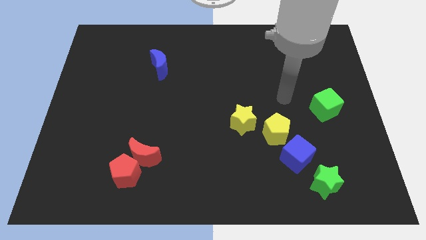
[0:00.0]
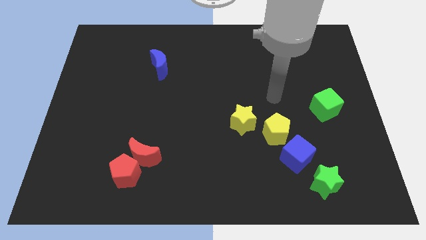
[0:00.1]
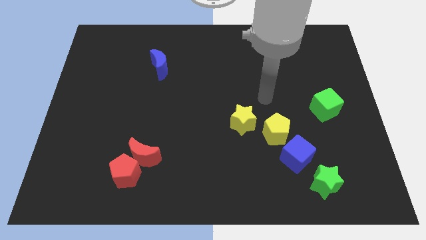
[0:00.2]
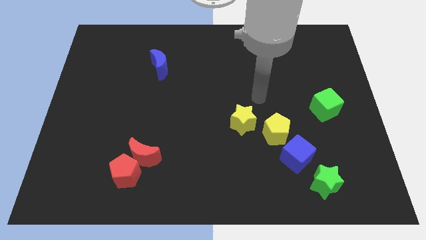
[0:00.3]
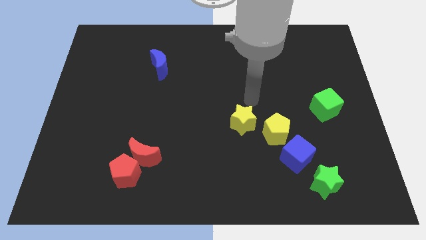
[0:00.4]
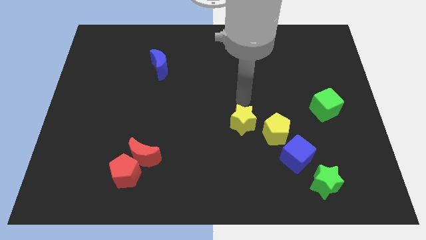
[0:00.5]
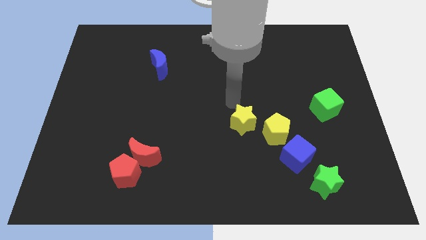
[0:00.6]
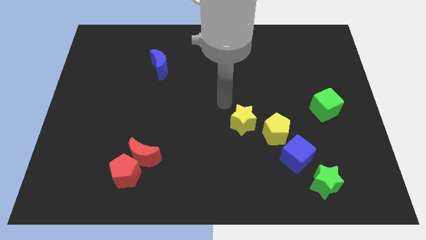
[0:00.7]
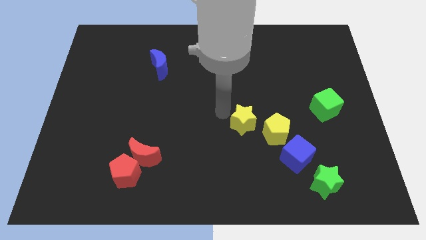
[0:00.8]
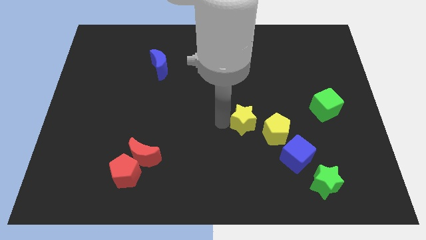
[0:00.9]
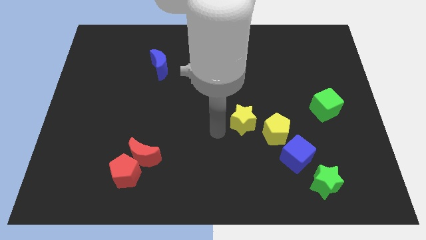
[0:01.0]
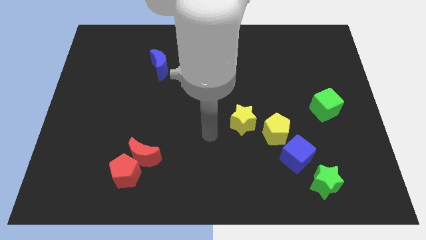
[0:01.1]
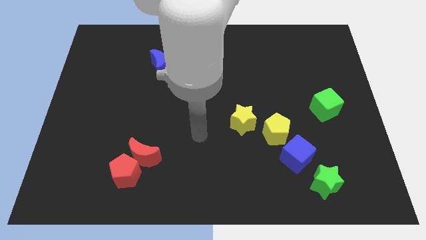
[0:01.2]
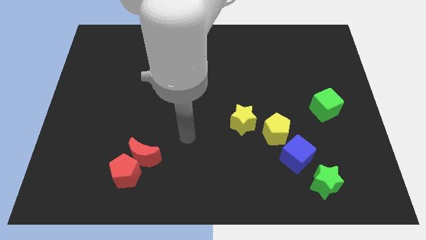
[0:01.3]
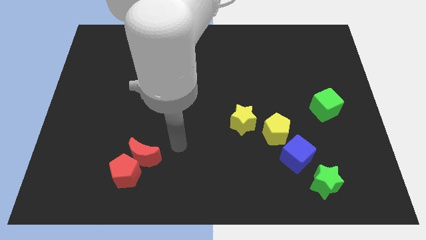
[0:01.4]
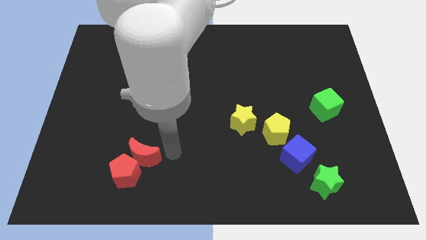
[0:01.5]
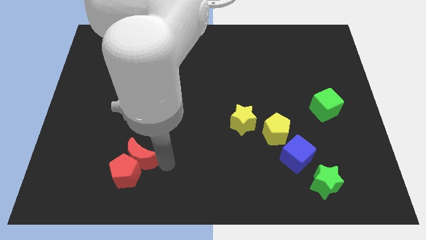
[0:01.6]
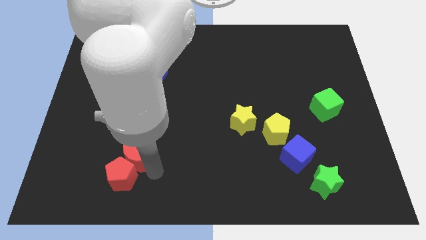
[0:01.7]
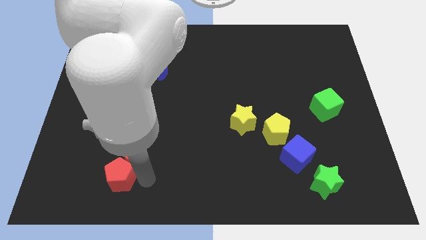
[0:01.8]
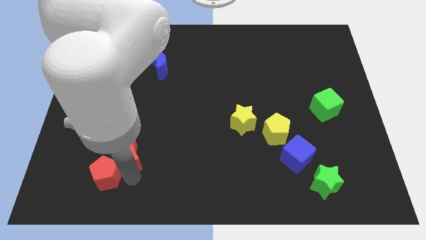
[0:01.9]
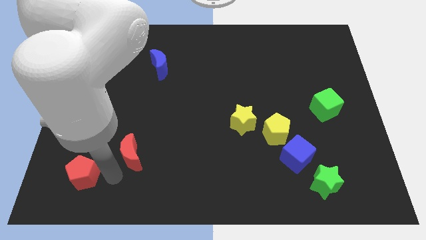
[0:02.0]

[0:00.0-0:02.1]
move the red moon away from the red pentagon

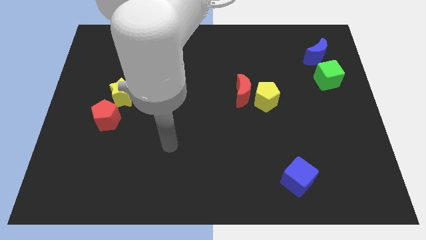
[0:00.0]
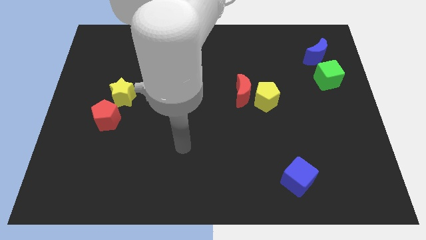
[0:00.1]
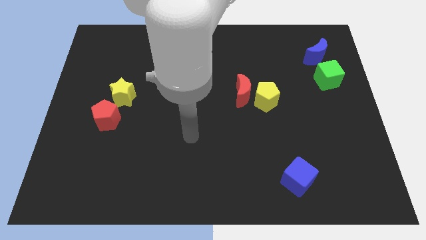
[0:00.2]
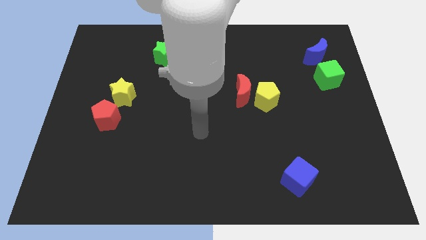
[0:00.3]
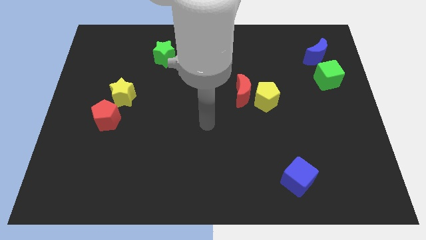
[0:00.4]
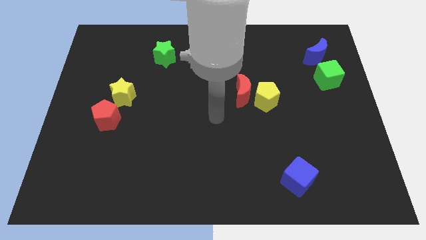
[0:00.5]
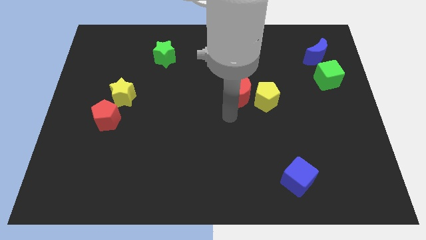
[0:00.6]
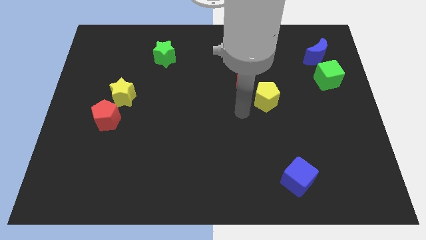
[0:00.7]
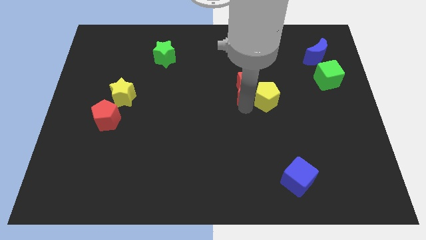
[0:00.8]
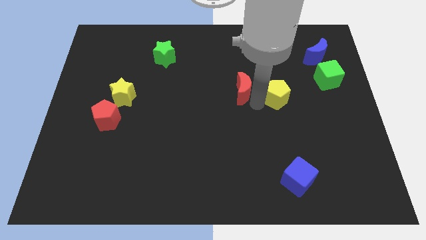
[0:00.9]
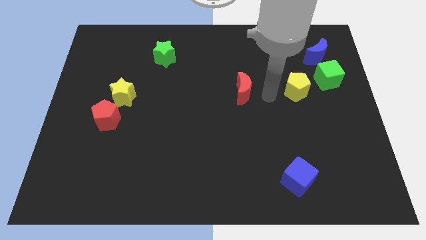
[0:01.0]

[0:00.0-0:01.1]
separate the red moon from the yellow pentagon

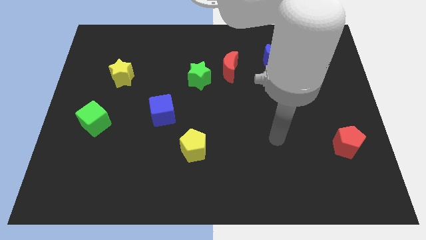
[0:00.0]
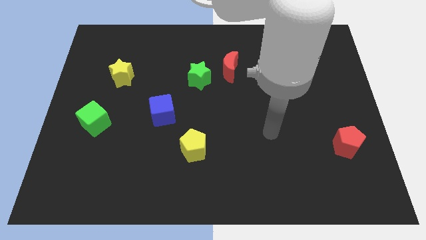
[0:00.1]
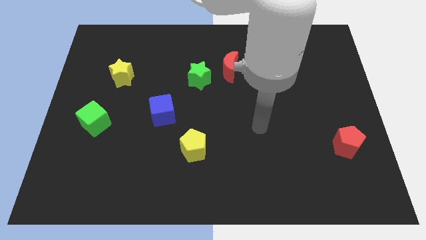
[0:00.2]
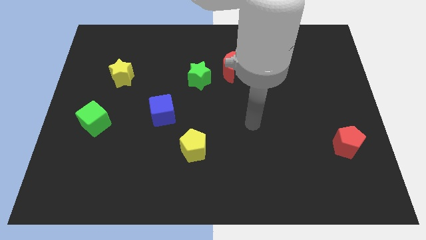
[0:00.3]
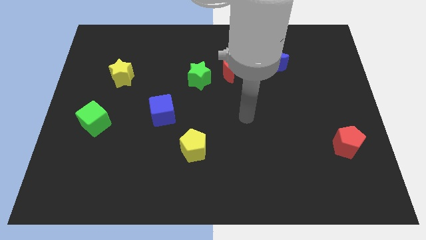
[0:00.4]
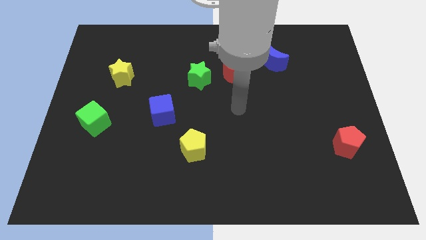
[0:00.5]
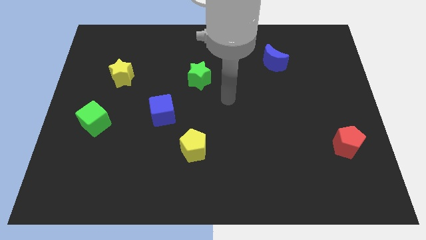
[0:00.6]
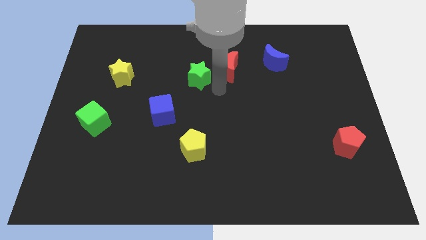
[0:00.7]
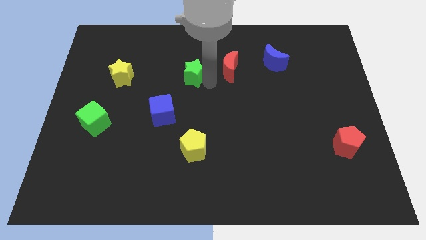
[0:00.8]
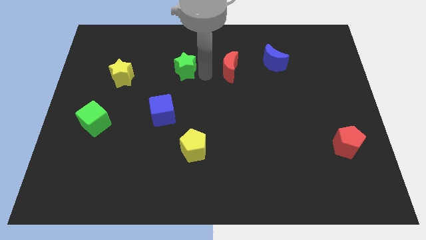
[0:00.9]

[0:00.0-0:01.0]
separate the red moon from the green star

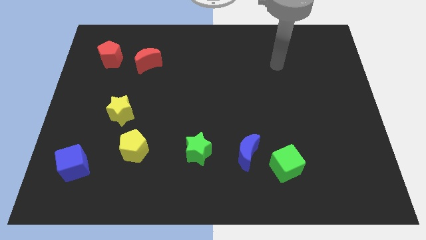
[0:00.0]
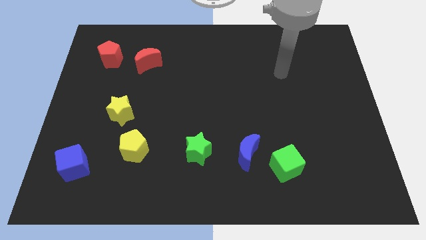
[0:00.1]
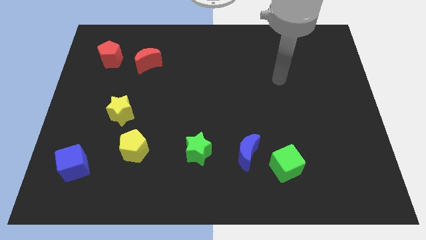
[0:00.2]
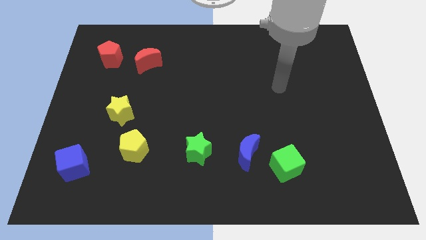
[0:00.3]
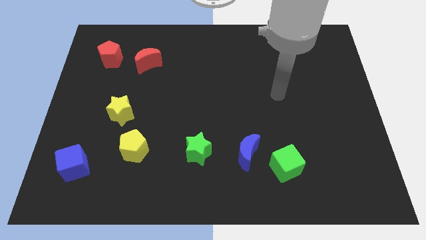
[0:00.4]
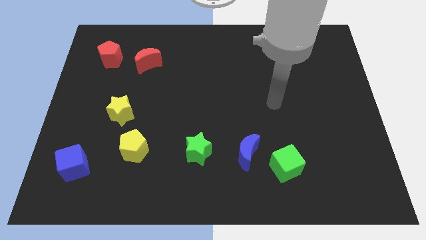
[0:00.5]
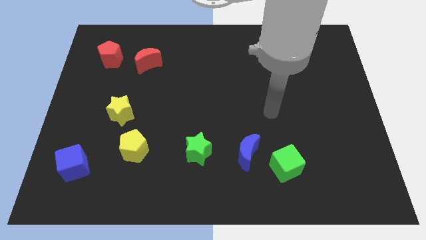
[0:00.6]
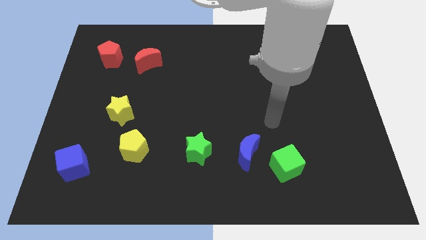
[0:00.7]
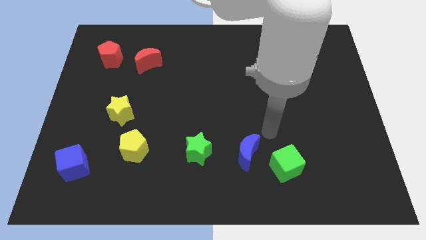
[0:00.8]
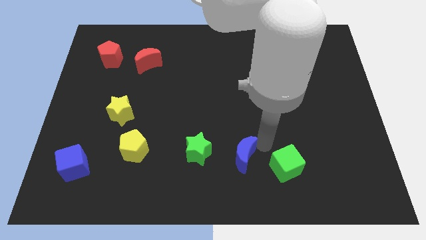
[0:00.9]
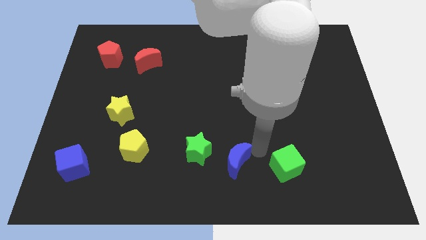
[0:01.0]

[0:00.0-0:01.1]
separate the green cube from the blue moon

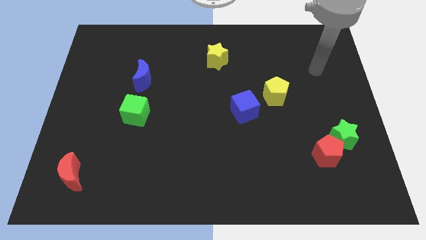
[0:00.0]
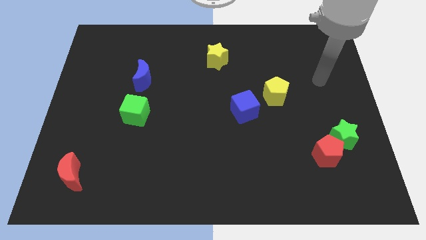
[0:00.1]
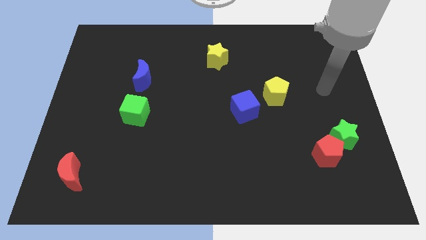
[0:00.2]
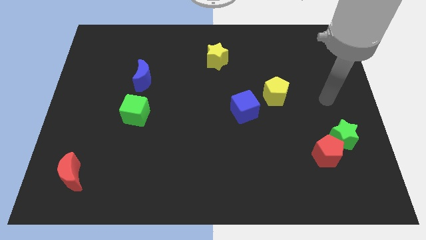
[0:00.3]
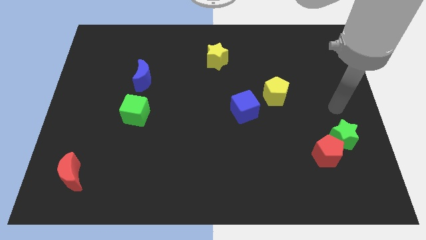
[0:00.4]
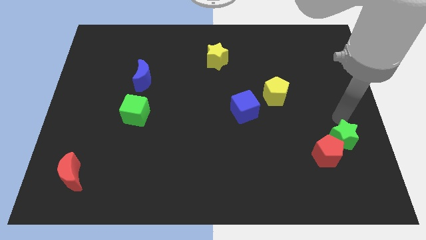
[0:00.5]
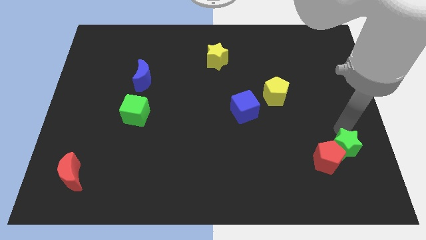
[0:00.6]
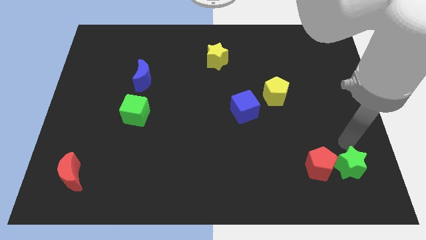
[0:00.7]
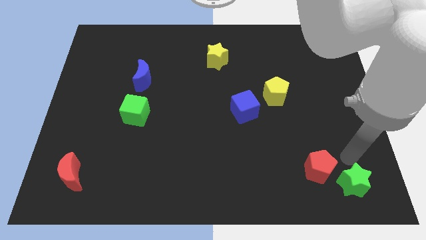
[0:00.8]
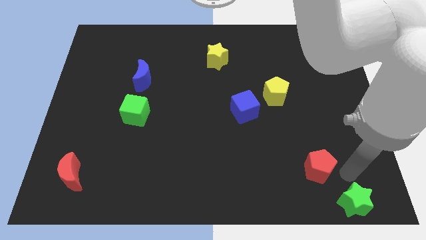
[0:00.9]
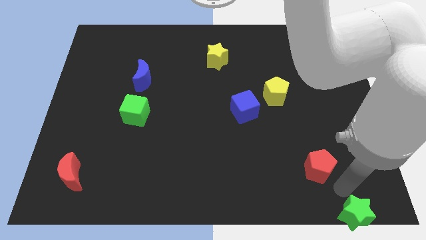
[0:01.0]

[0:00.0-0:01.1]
separate the red pentagon from the green star

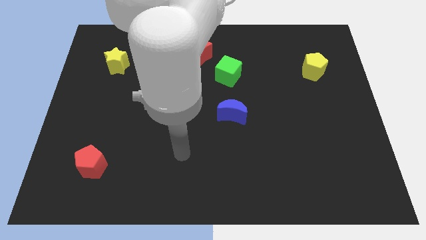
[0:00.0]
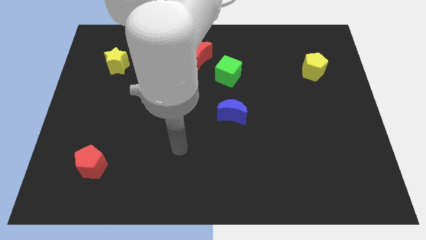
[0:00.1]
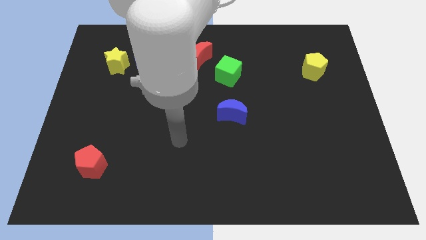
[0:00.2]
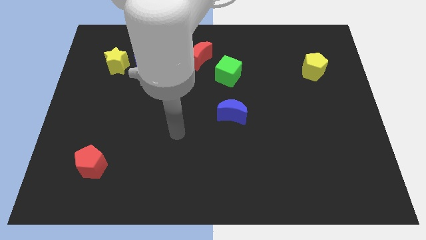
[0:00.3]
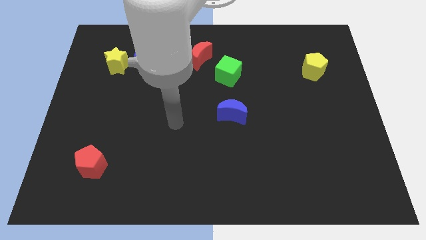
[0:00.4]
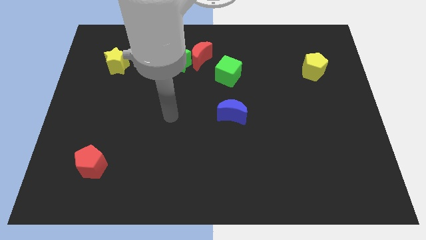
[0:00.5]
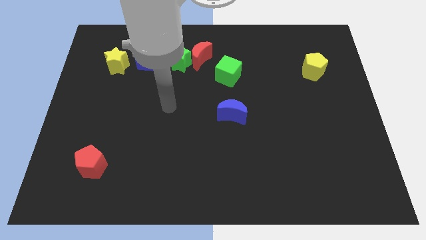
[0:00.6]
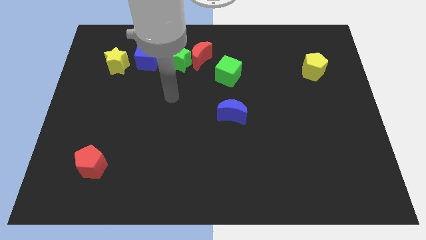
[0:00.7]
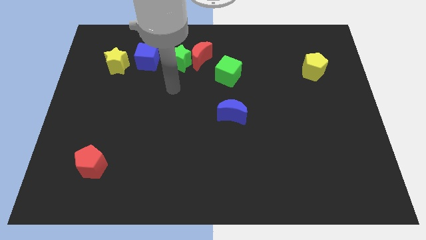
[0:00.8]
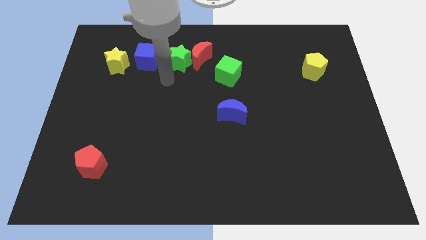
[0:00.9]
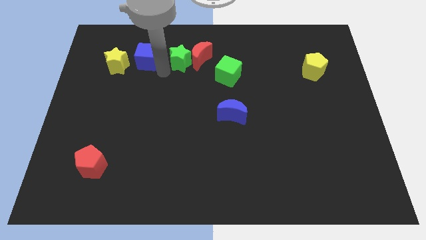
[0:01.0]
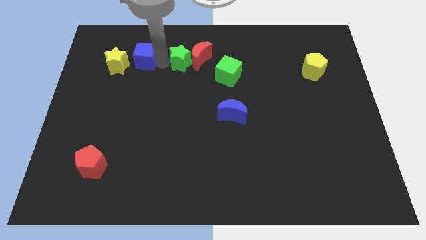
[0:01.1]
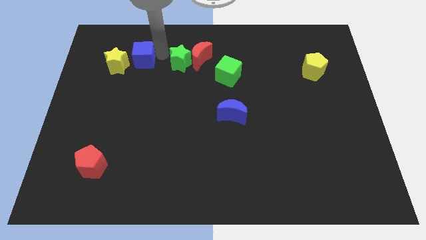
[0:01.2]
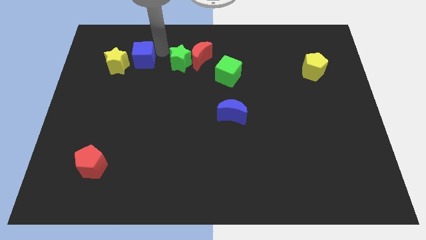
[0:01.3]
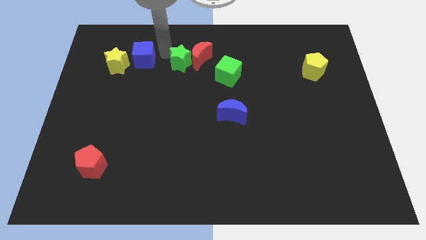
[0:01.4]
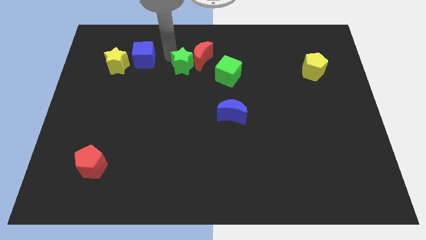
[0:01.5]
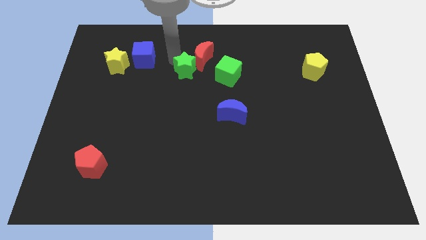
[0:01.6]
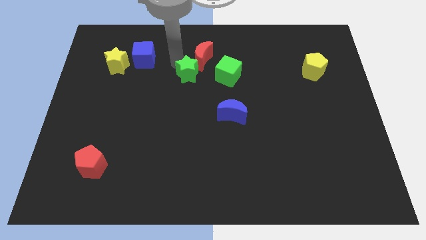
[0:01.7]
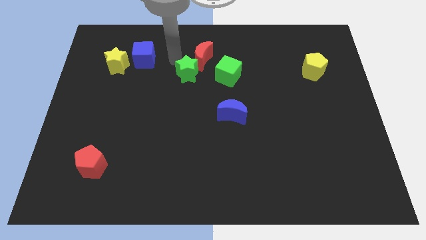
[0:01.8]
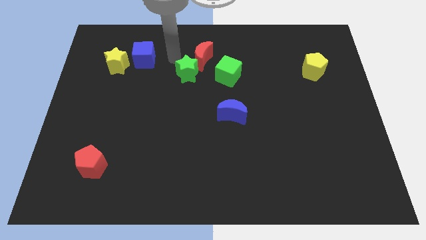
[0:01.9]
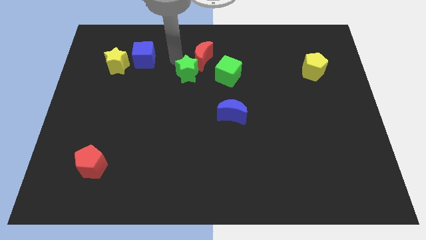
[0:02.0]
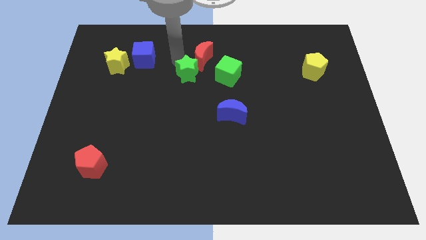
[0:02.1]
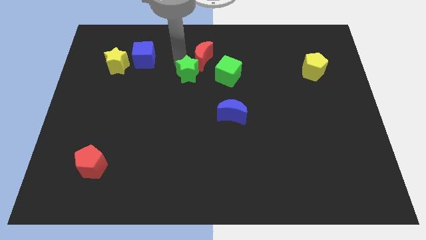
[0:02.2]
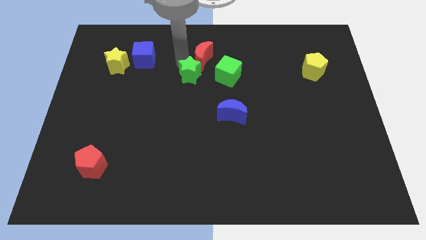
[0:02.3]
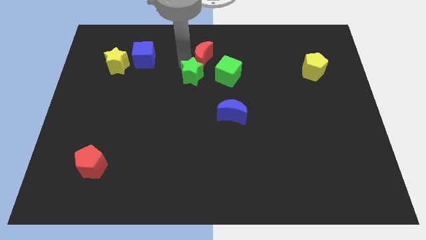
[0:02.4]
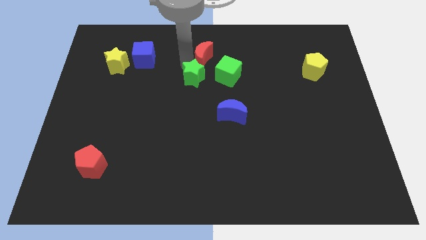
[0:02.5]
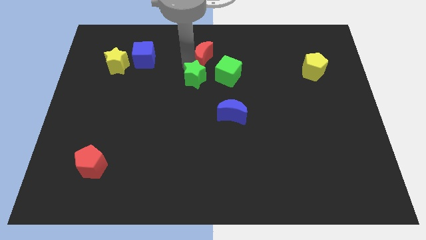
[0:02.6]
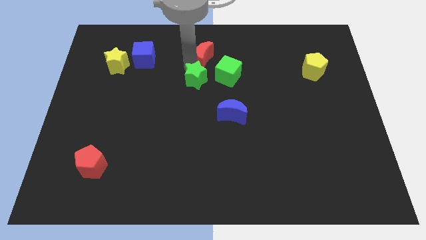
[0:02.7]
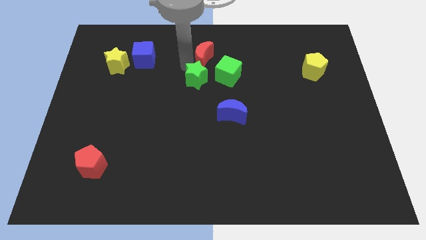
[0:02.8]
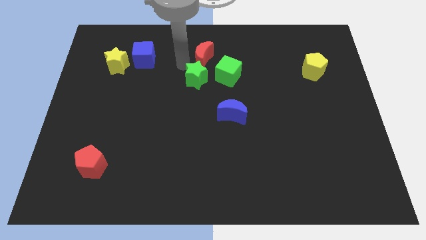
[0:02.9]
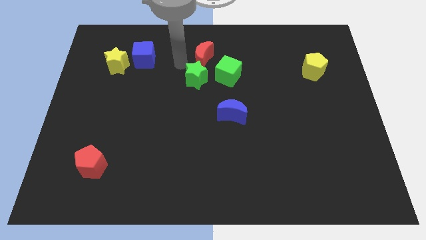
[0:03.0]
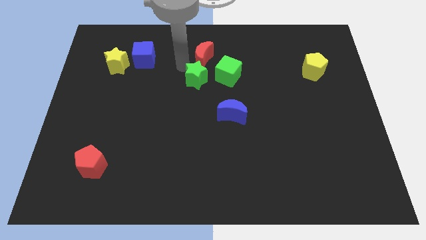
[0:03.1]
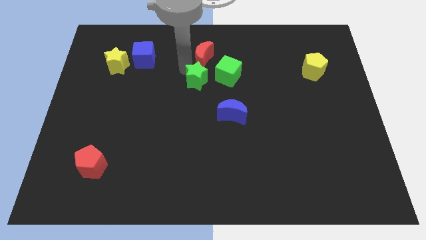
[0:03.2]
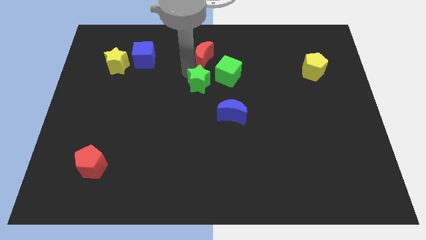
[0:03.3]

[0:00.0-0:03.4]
pull the green star apart from the red moon and blue cube